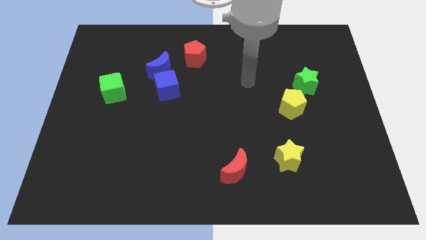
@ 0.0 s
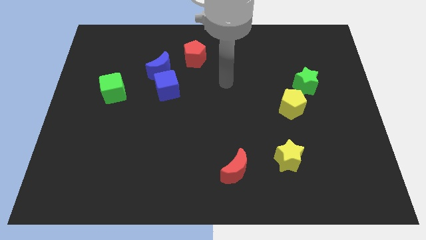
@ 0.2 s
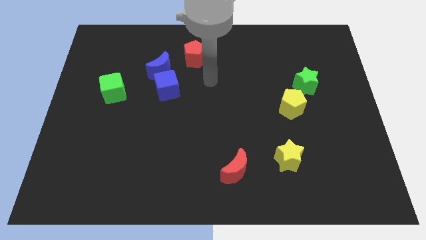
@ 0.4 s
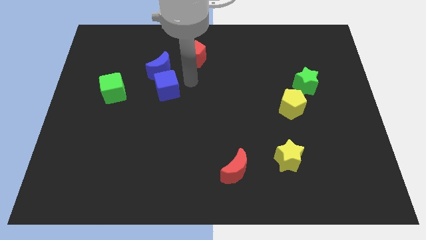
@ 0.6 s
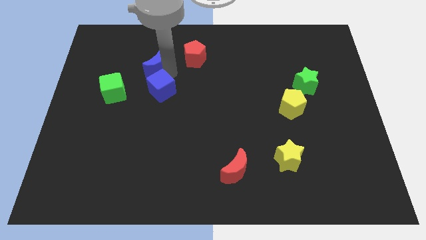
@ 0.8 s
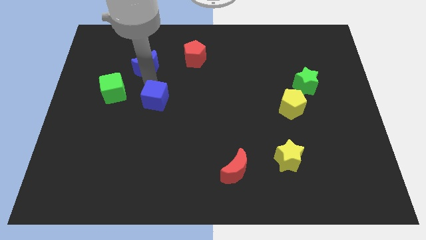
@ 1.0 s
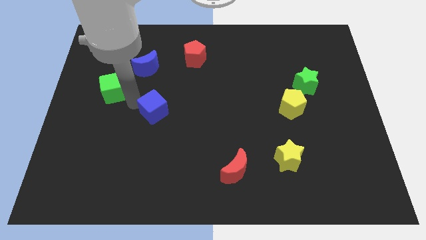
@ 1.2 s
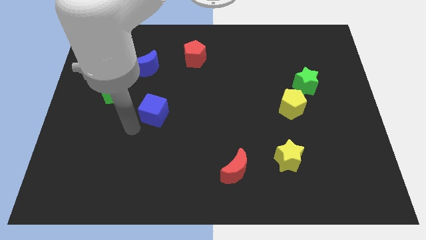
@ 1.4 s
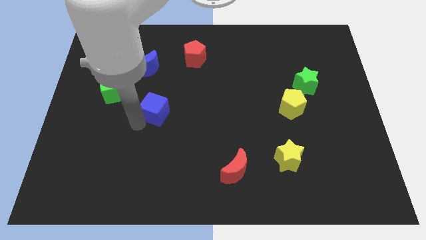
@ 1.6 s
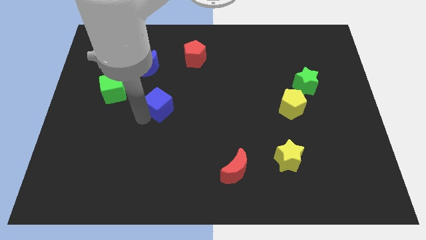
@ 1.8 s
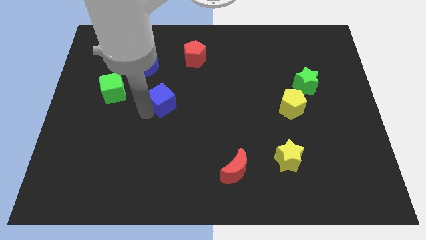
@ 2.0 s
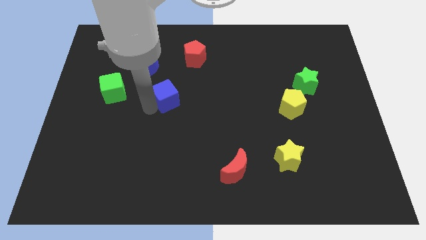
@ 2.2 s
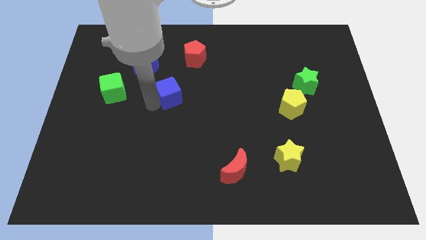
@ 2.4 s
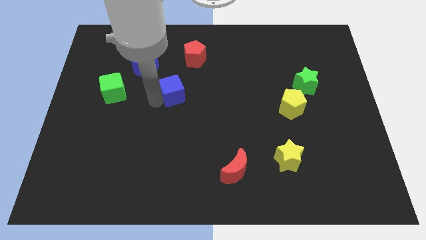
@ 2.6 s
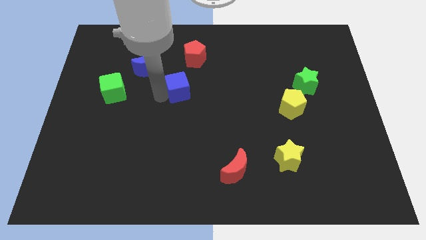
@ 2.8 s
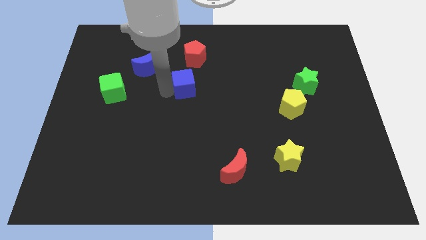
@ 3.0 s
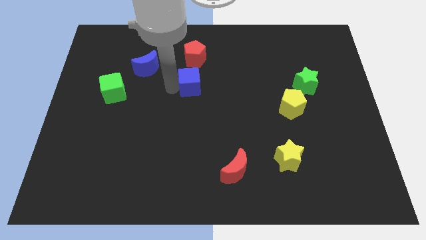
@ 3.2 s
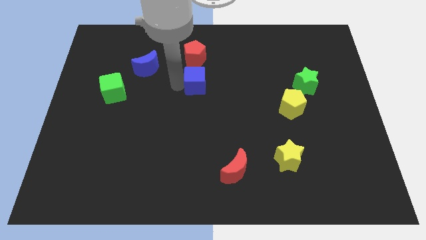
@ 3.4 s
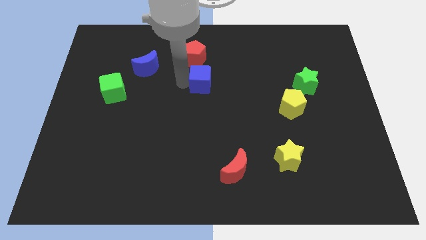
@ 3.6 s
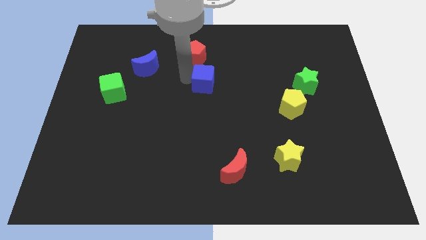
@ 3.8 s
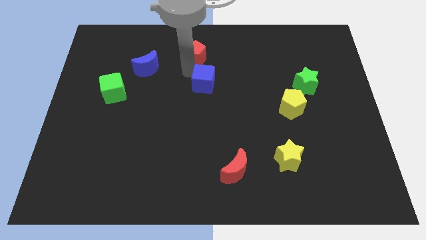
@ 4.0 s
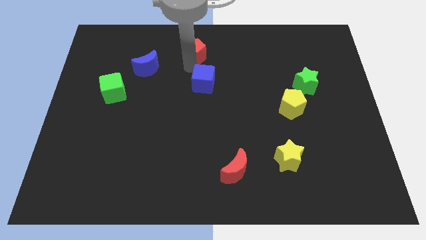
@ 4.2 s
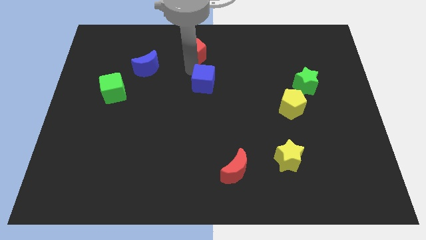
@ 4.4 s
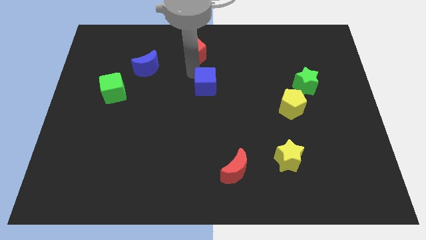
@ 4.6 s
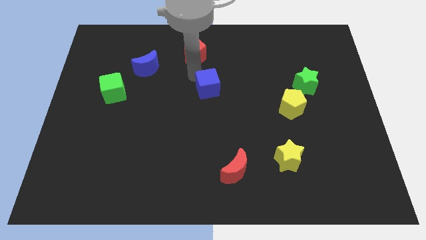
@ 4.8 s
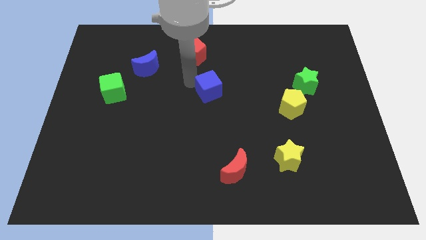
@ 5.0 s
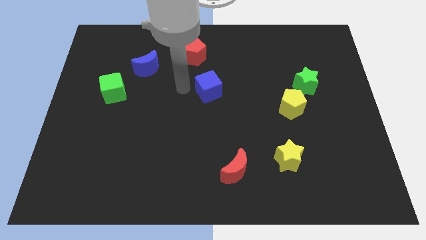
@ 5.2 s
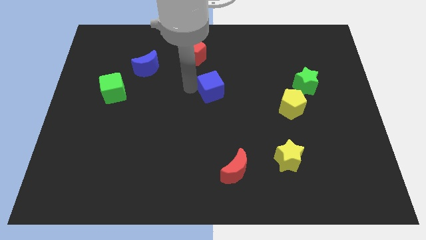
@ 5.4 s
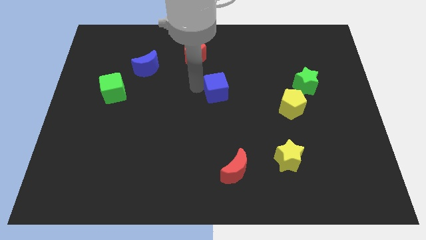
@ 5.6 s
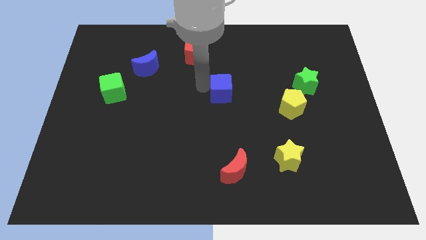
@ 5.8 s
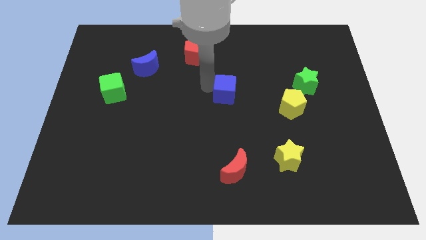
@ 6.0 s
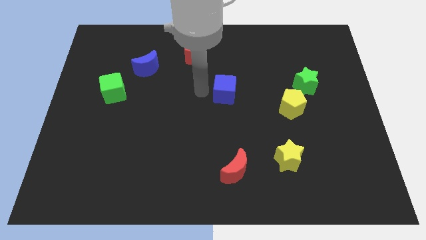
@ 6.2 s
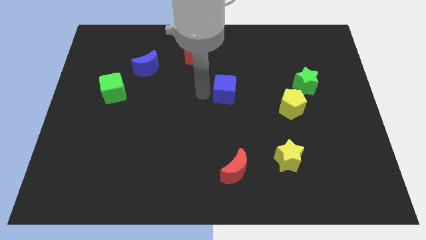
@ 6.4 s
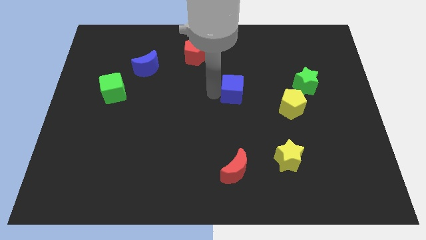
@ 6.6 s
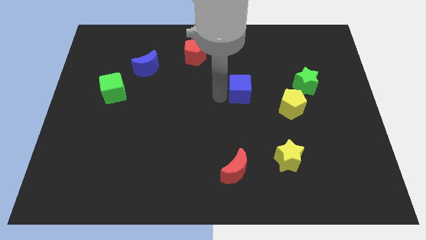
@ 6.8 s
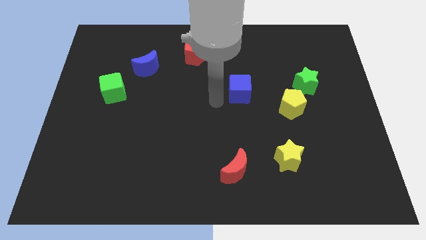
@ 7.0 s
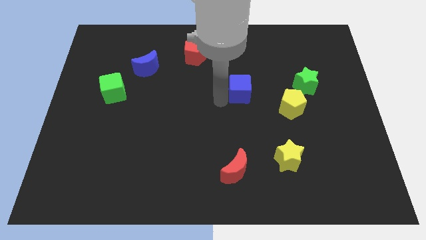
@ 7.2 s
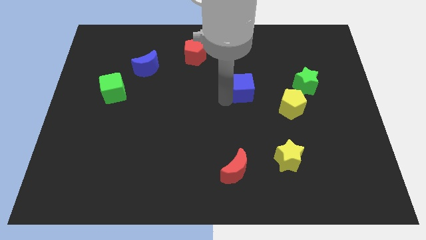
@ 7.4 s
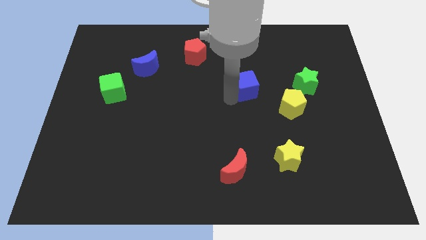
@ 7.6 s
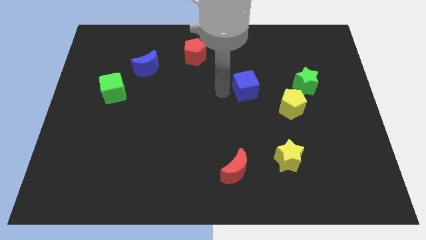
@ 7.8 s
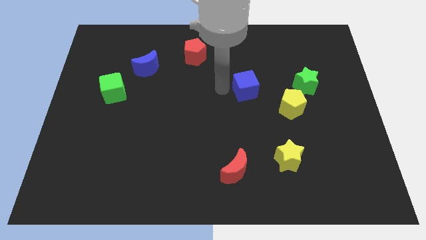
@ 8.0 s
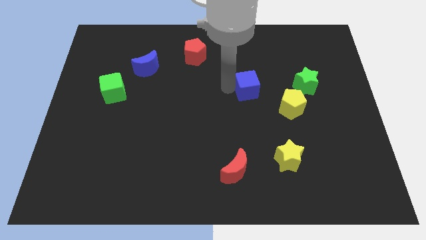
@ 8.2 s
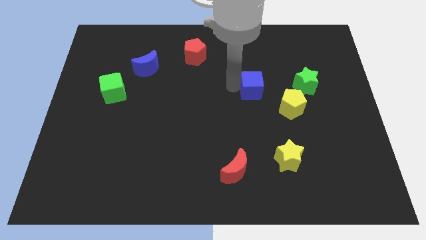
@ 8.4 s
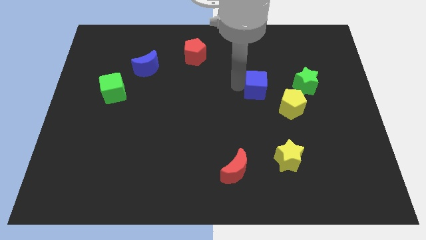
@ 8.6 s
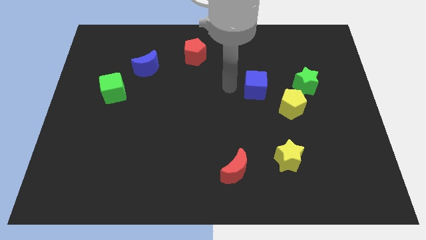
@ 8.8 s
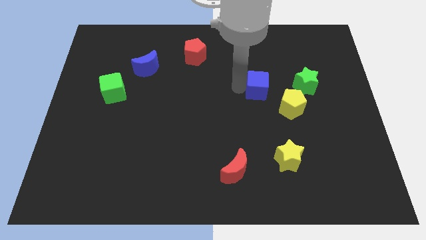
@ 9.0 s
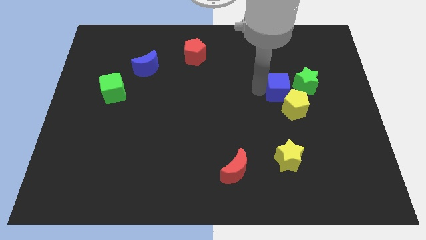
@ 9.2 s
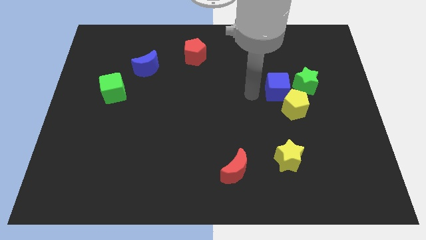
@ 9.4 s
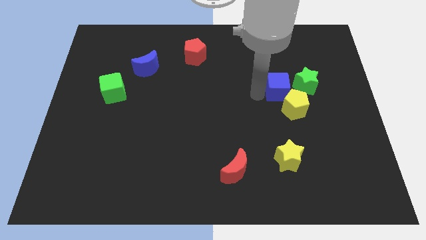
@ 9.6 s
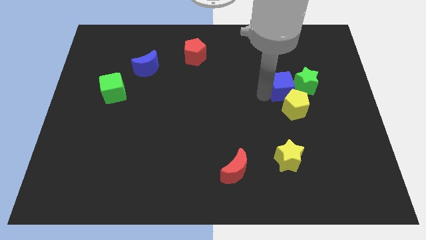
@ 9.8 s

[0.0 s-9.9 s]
slide the blue cube towards the green star

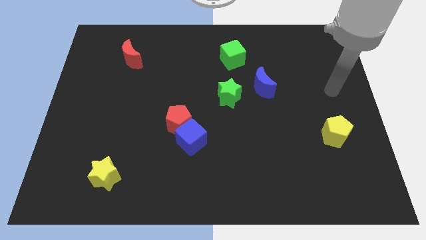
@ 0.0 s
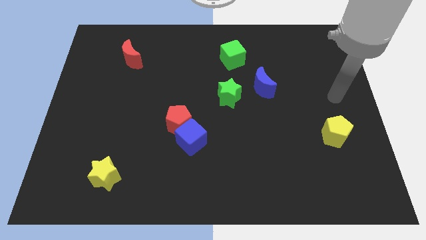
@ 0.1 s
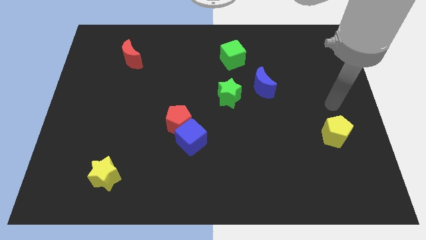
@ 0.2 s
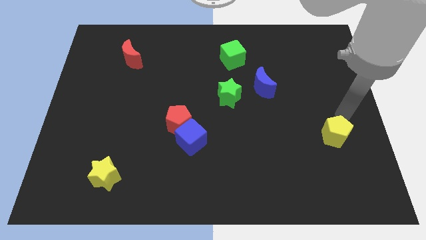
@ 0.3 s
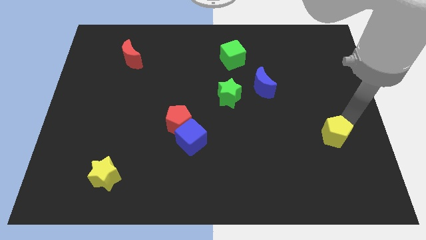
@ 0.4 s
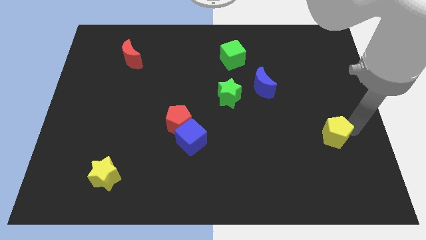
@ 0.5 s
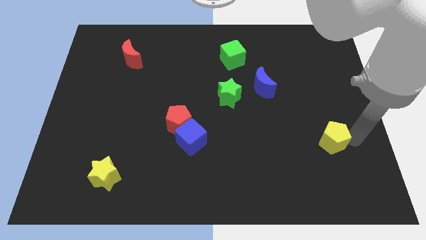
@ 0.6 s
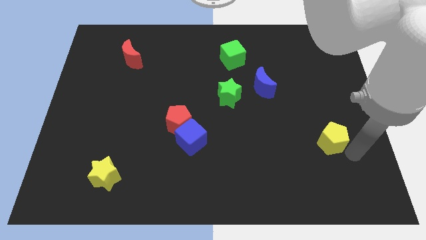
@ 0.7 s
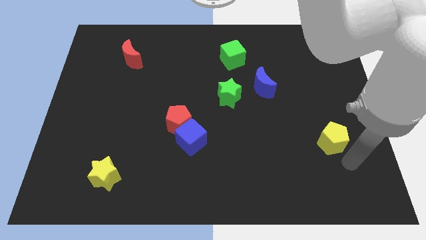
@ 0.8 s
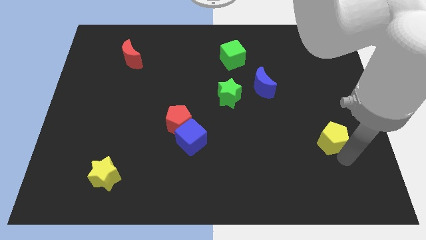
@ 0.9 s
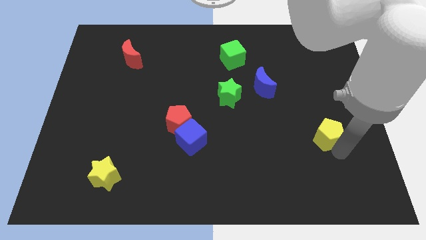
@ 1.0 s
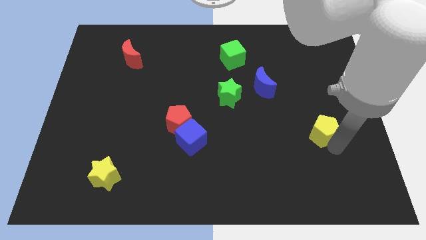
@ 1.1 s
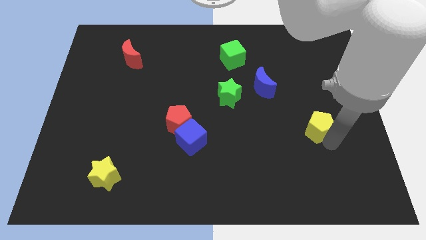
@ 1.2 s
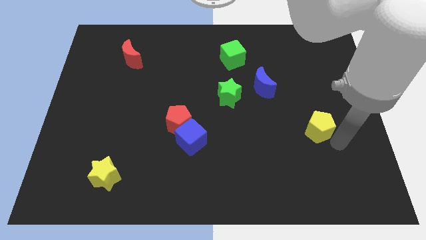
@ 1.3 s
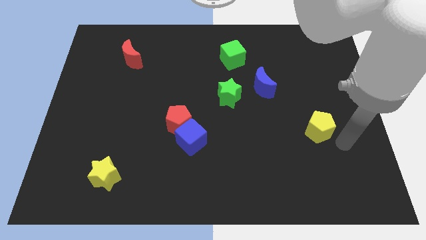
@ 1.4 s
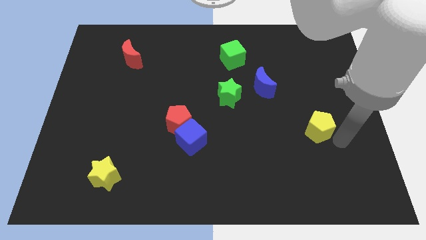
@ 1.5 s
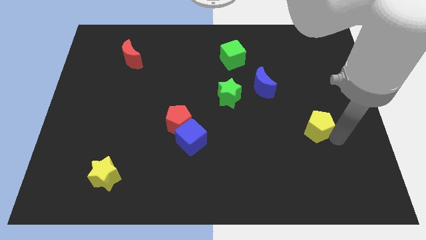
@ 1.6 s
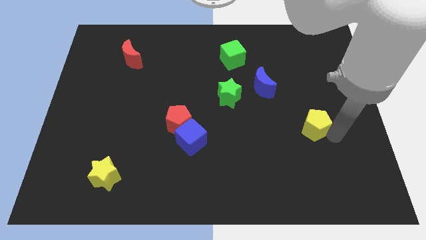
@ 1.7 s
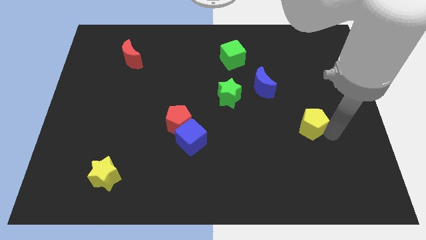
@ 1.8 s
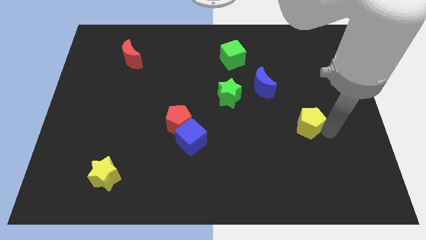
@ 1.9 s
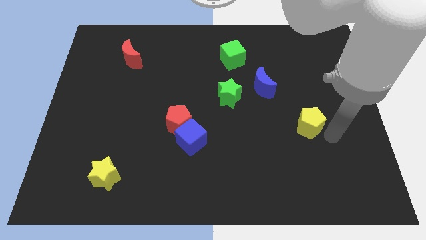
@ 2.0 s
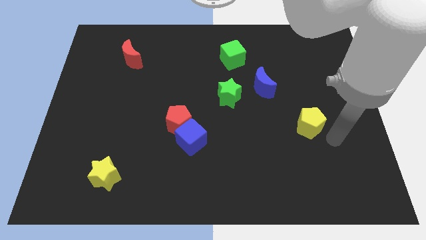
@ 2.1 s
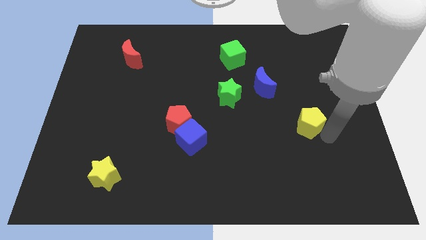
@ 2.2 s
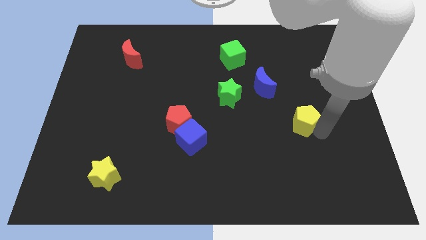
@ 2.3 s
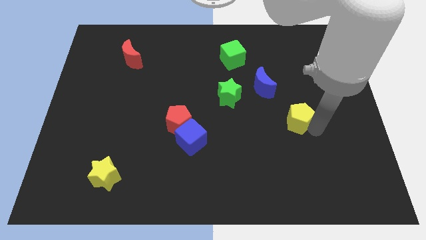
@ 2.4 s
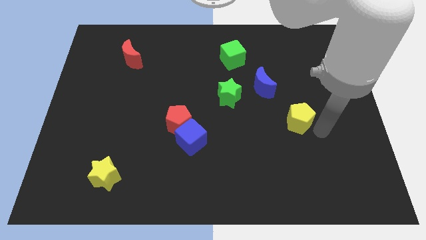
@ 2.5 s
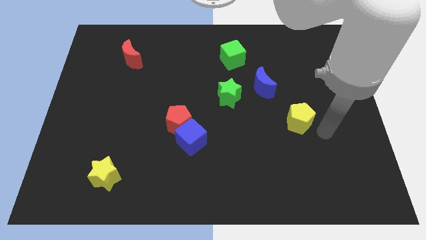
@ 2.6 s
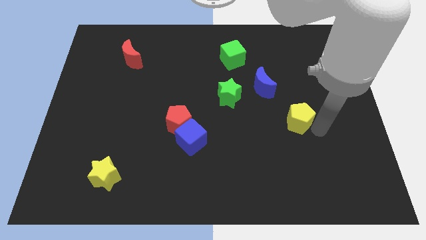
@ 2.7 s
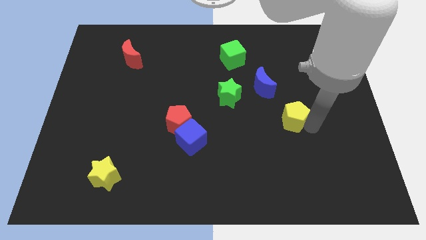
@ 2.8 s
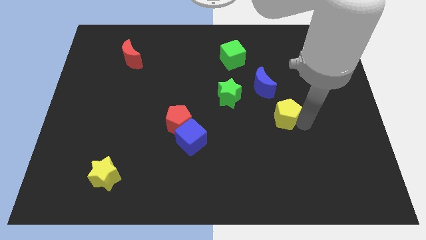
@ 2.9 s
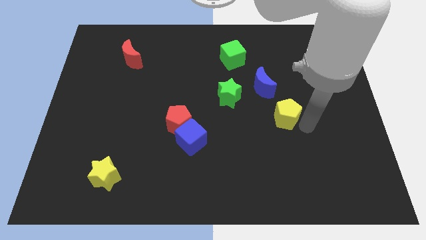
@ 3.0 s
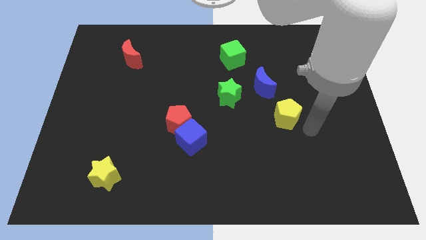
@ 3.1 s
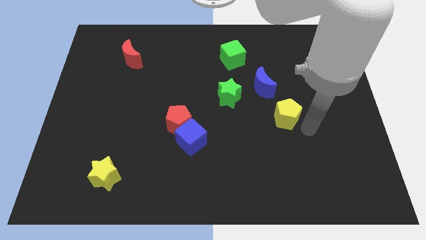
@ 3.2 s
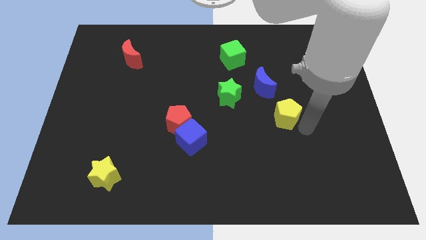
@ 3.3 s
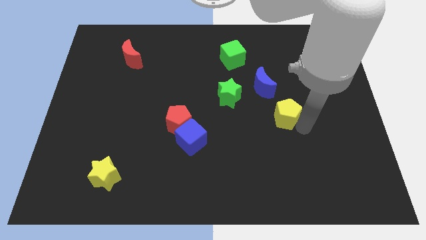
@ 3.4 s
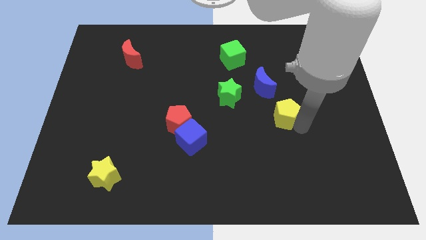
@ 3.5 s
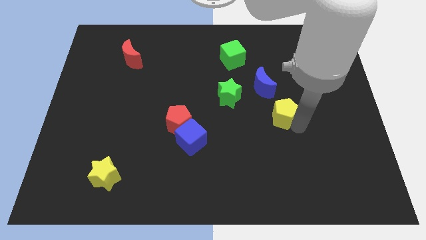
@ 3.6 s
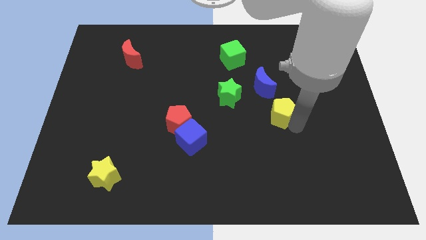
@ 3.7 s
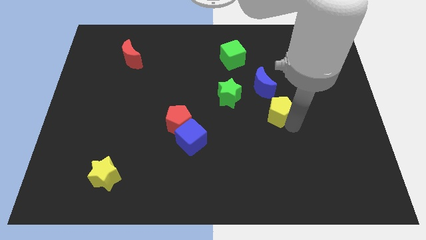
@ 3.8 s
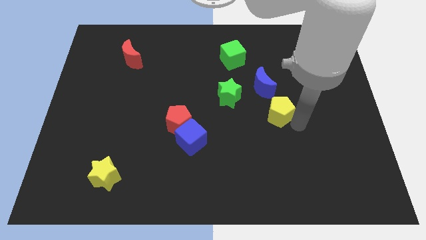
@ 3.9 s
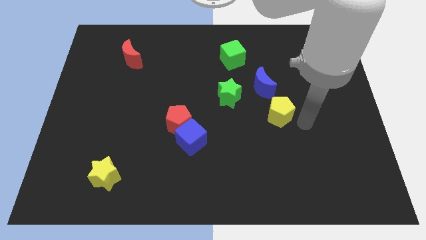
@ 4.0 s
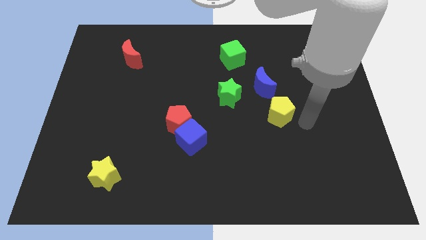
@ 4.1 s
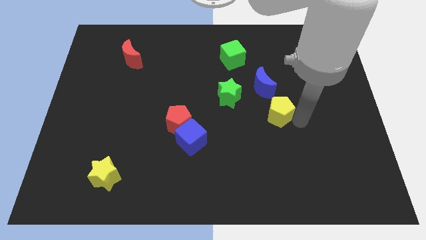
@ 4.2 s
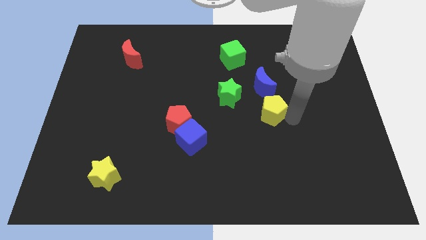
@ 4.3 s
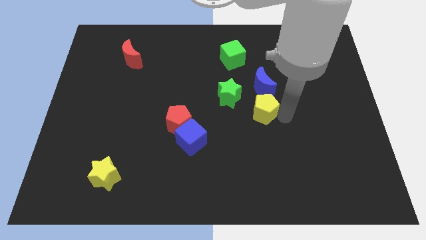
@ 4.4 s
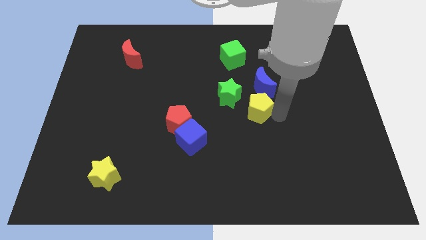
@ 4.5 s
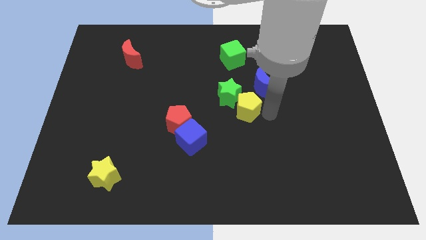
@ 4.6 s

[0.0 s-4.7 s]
put the yellow pentagon close to the green star
